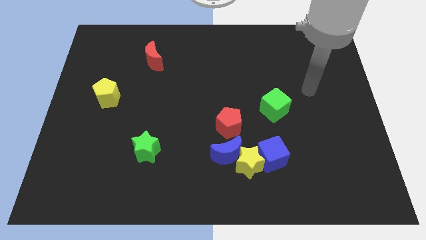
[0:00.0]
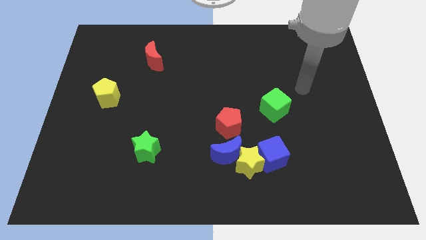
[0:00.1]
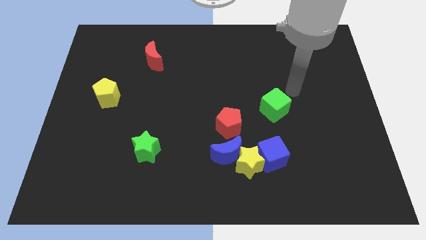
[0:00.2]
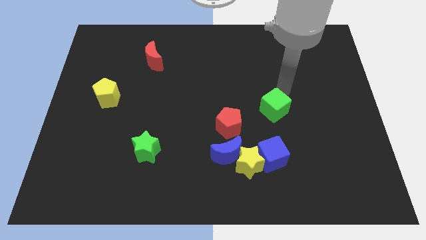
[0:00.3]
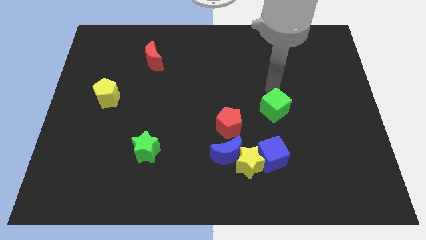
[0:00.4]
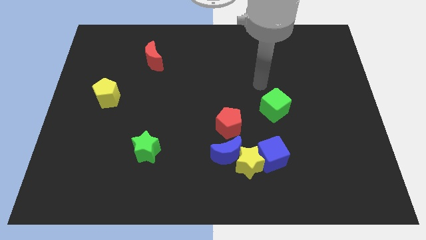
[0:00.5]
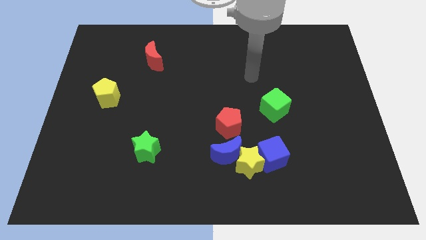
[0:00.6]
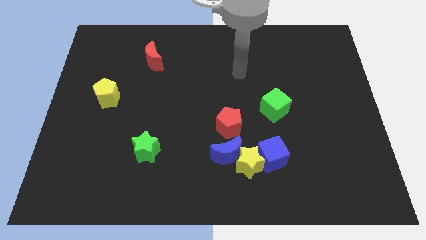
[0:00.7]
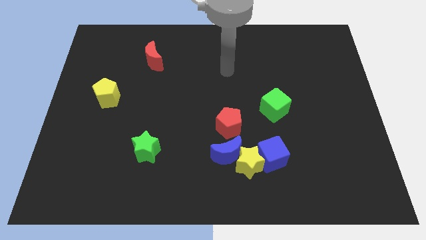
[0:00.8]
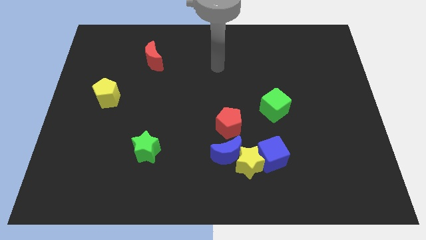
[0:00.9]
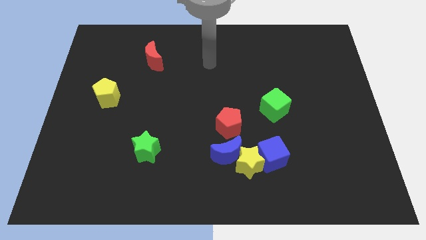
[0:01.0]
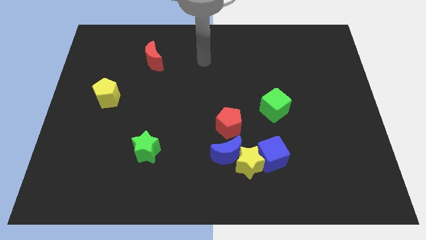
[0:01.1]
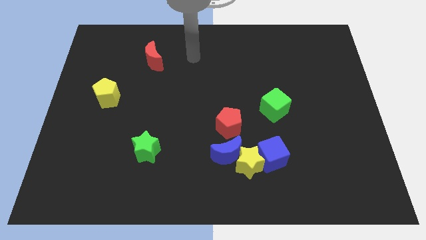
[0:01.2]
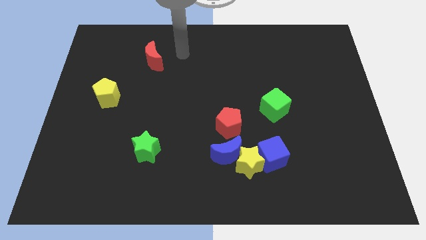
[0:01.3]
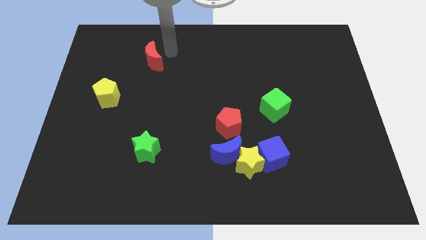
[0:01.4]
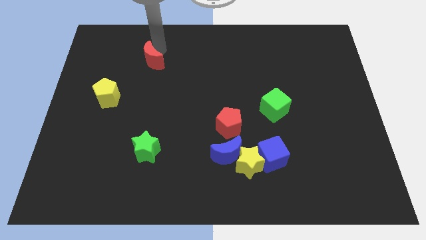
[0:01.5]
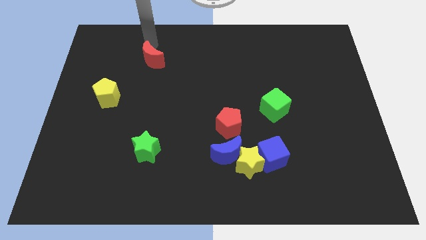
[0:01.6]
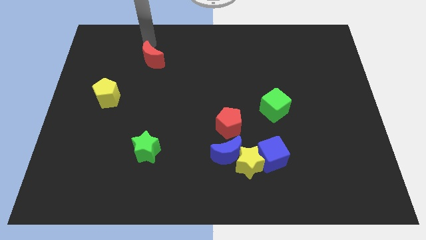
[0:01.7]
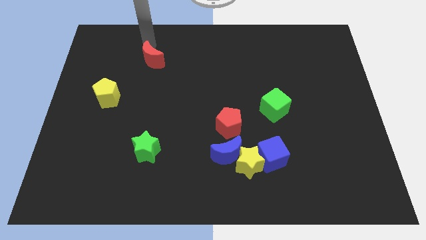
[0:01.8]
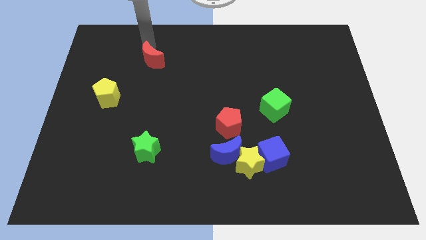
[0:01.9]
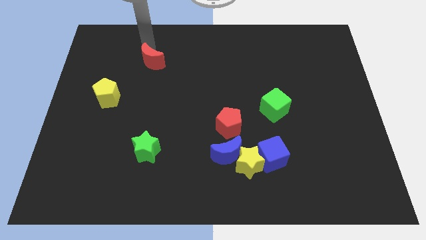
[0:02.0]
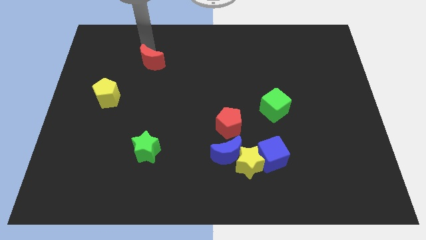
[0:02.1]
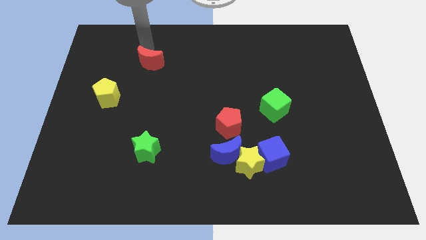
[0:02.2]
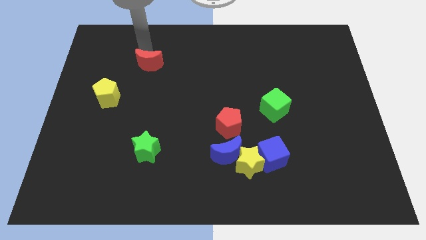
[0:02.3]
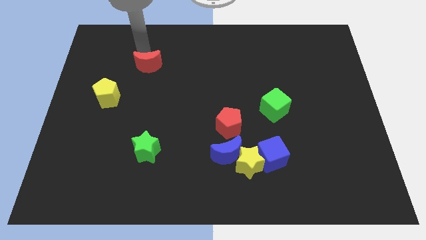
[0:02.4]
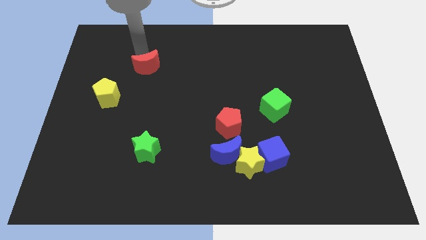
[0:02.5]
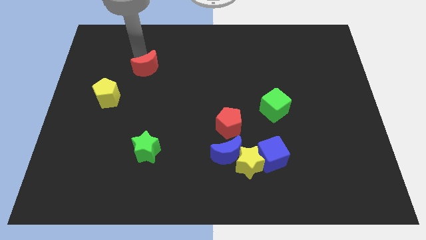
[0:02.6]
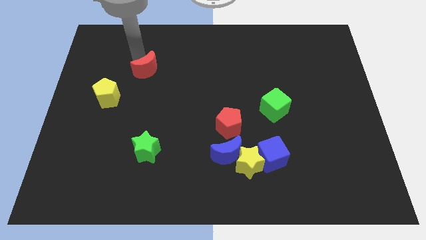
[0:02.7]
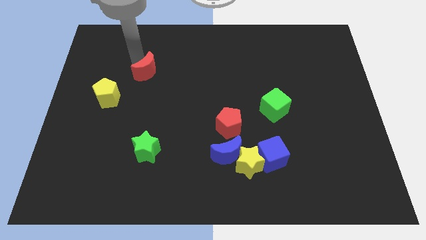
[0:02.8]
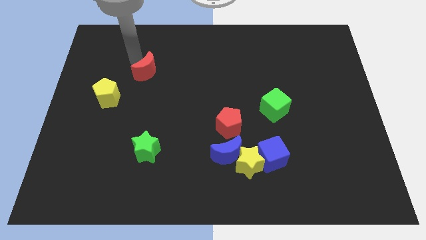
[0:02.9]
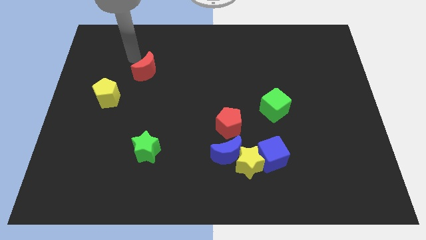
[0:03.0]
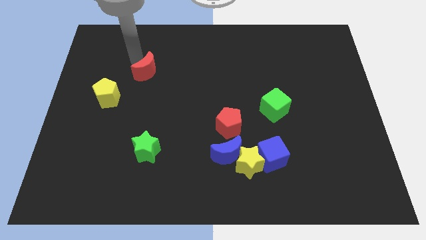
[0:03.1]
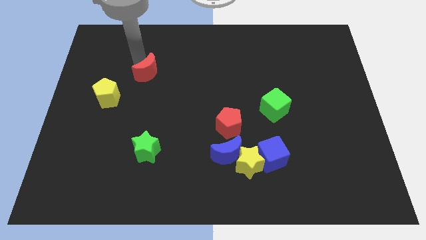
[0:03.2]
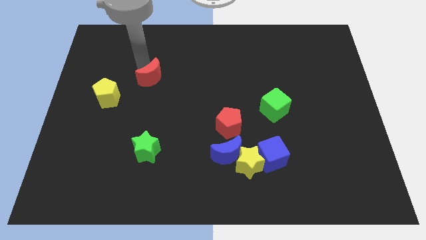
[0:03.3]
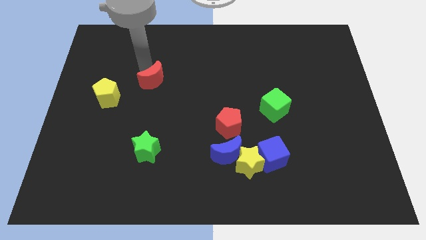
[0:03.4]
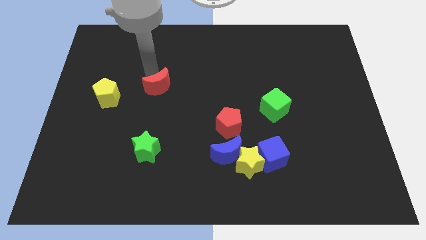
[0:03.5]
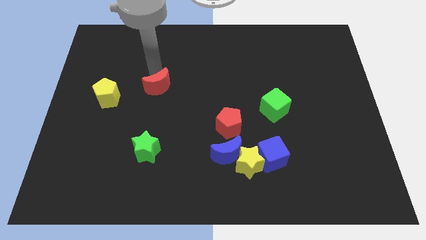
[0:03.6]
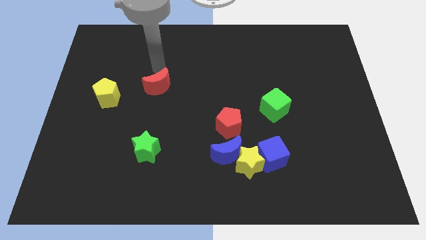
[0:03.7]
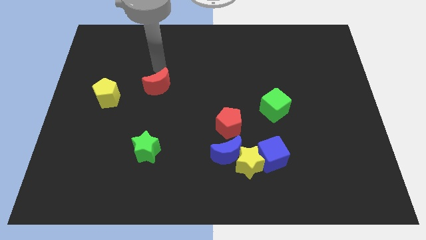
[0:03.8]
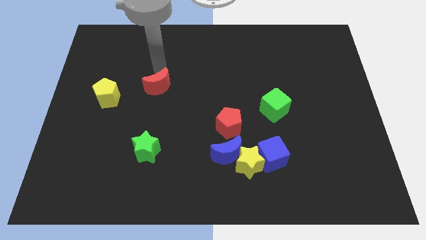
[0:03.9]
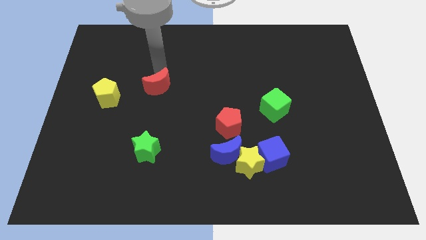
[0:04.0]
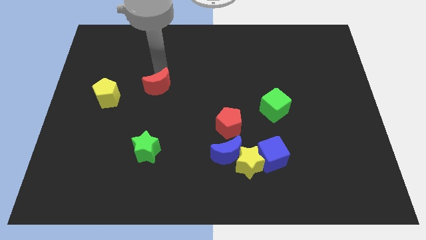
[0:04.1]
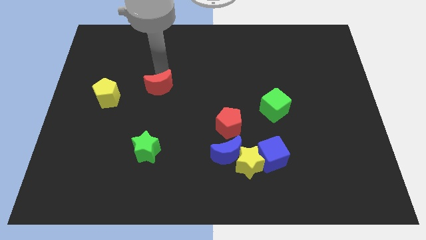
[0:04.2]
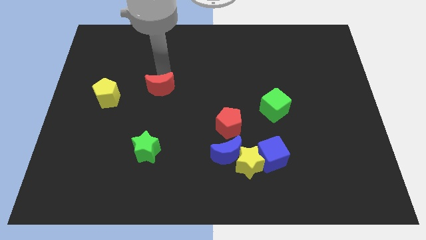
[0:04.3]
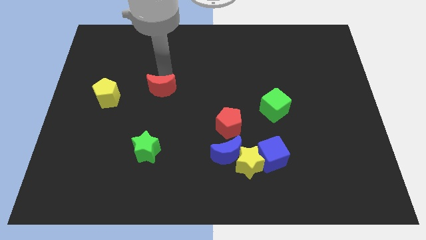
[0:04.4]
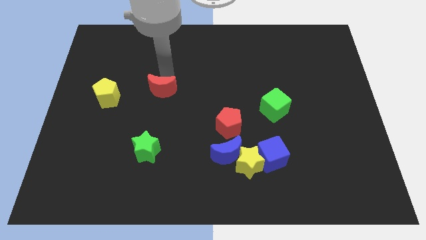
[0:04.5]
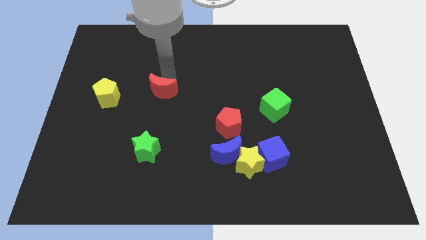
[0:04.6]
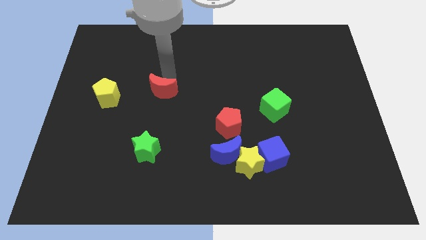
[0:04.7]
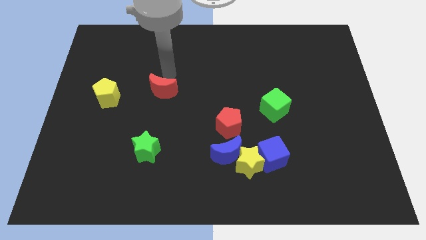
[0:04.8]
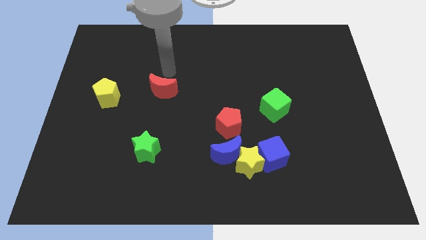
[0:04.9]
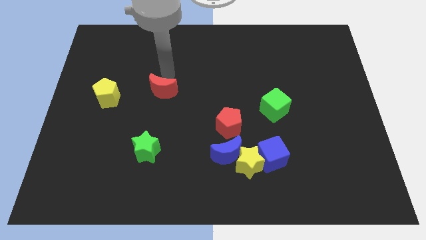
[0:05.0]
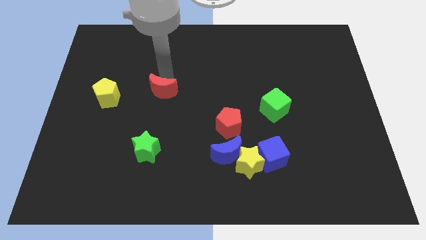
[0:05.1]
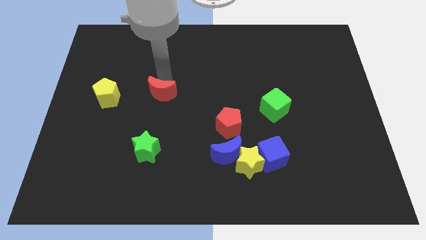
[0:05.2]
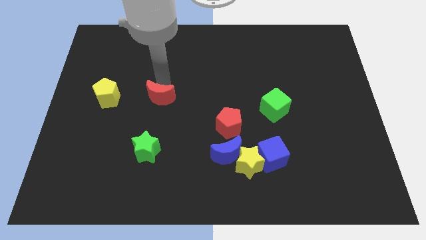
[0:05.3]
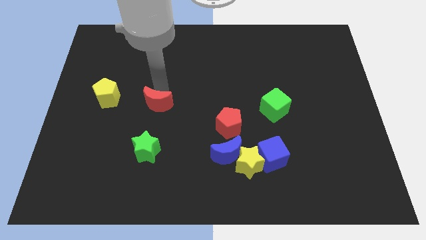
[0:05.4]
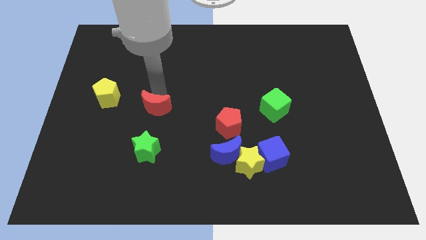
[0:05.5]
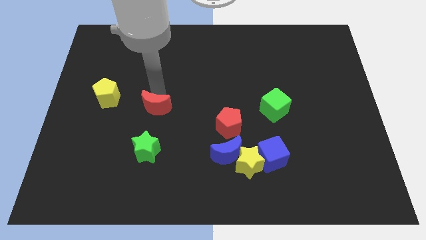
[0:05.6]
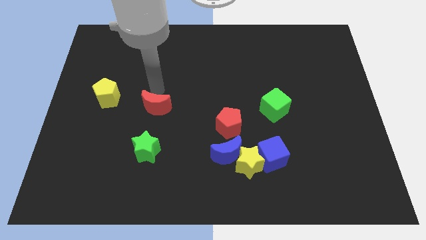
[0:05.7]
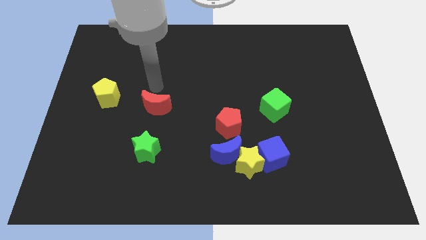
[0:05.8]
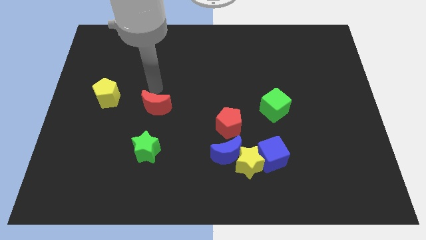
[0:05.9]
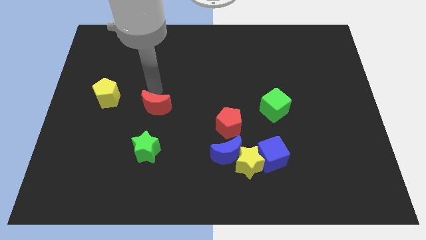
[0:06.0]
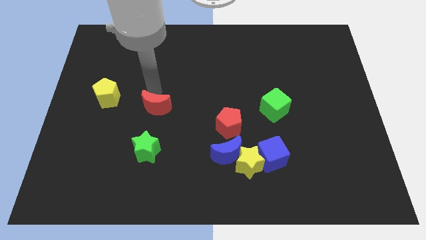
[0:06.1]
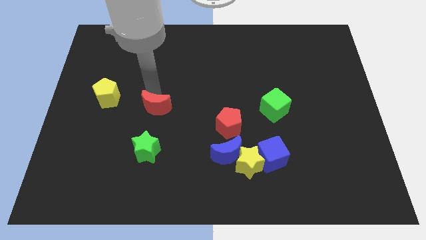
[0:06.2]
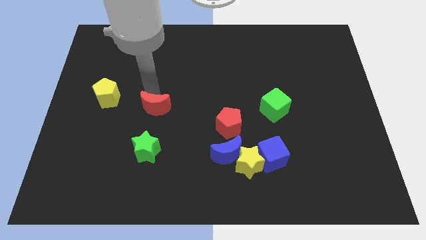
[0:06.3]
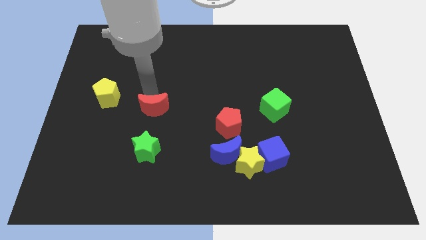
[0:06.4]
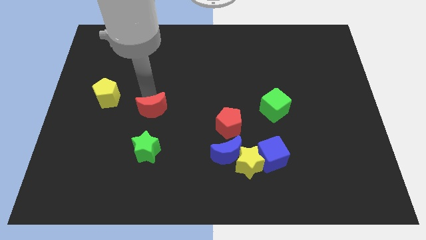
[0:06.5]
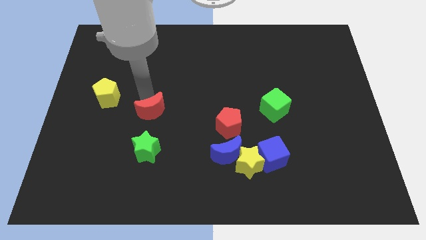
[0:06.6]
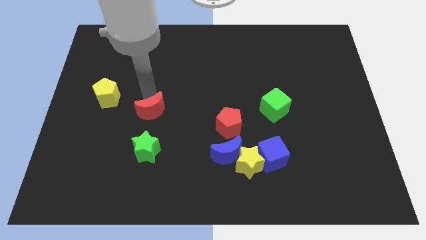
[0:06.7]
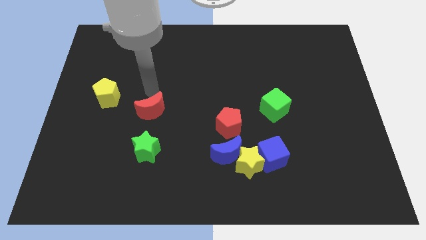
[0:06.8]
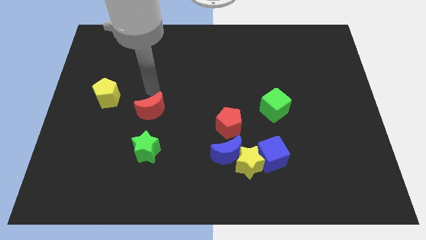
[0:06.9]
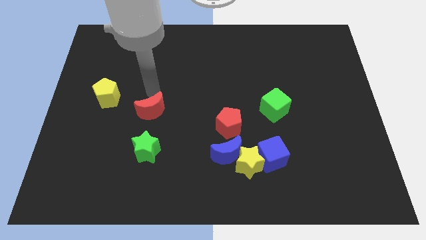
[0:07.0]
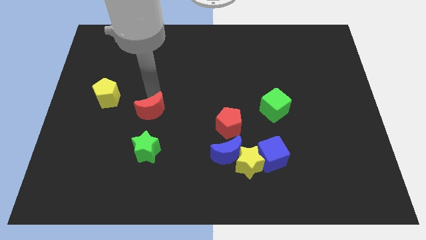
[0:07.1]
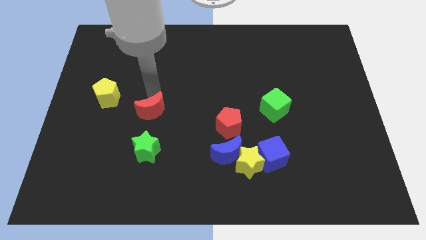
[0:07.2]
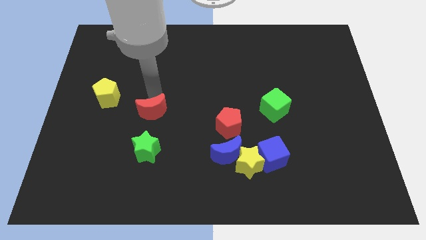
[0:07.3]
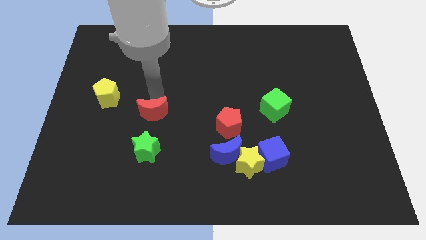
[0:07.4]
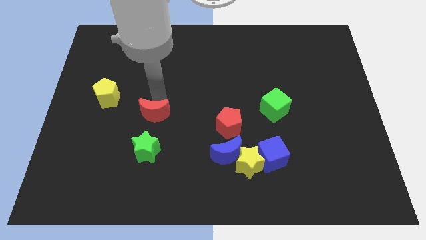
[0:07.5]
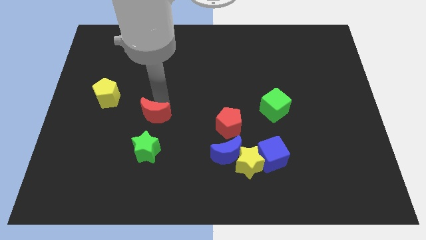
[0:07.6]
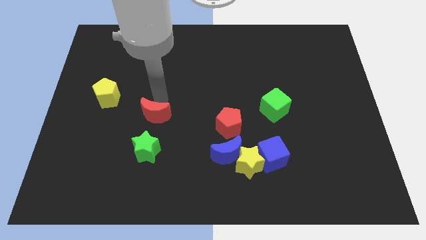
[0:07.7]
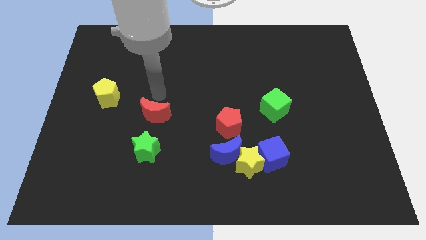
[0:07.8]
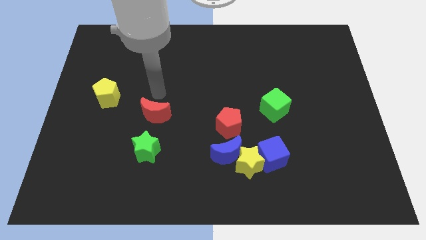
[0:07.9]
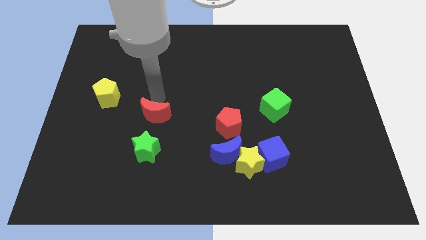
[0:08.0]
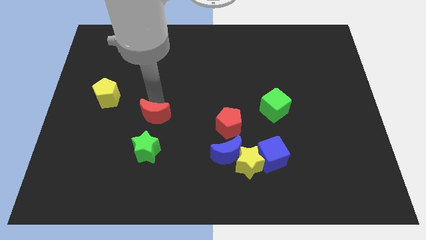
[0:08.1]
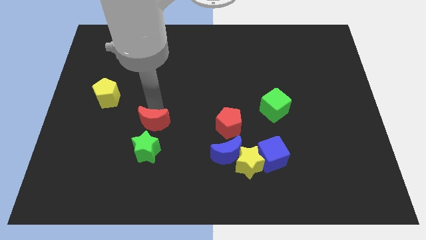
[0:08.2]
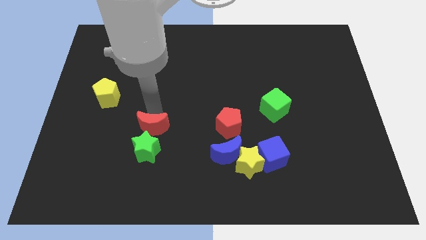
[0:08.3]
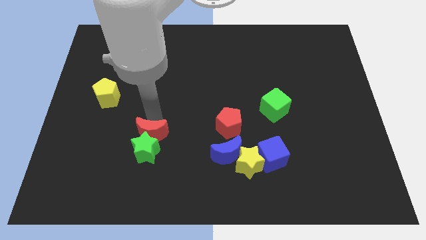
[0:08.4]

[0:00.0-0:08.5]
move the red moon to the green star
